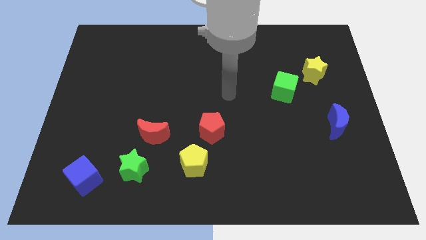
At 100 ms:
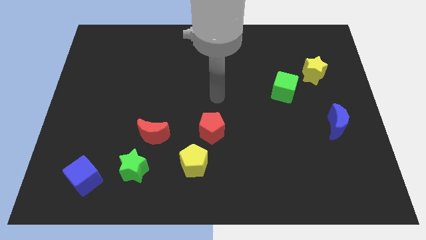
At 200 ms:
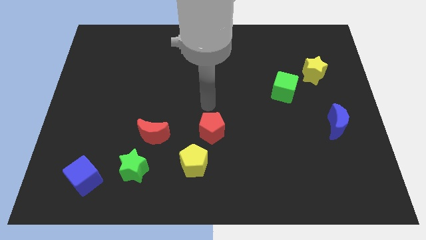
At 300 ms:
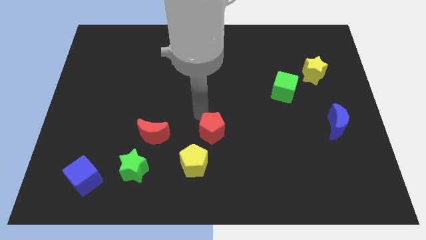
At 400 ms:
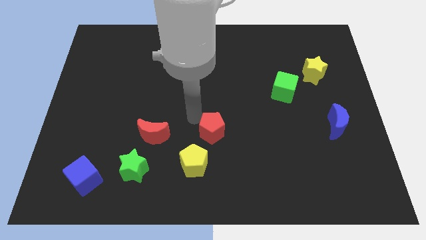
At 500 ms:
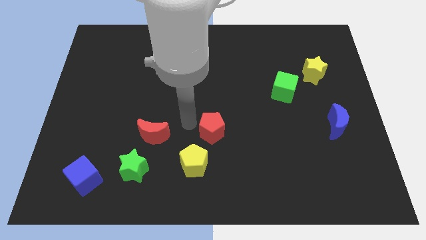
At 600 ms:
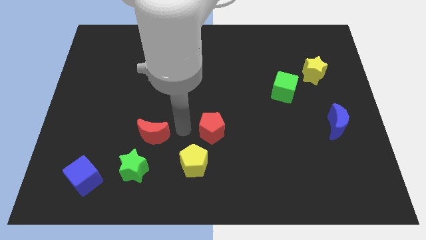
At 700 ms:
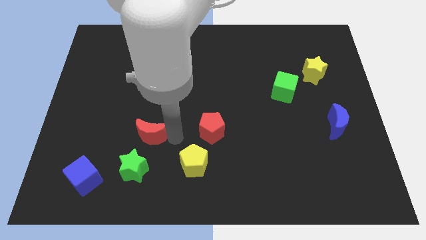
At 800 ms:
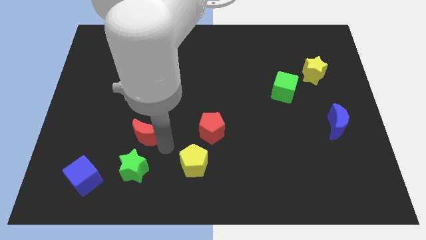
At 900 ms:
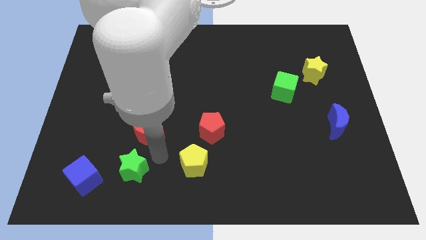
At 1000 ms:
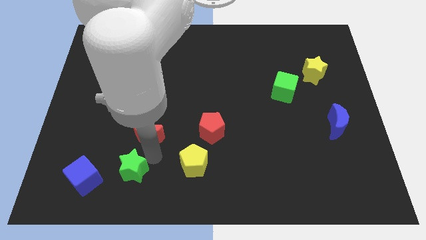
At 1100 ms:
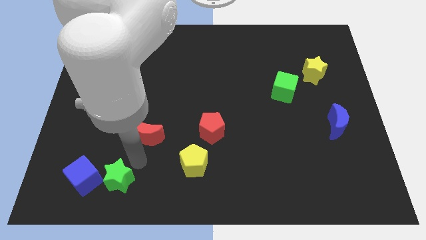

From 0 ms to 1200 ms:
pull the red moon apart from the green star

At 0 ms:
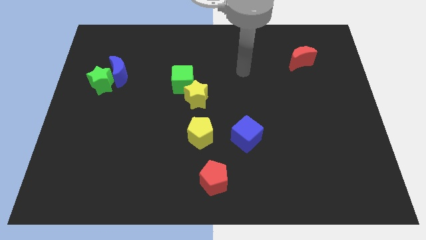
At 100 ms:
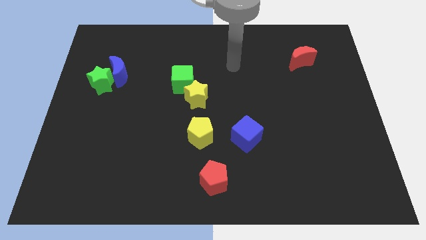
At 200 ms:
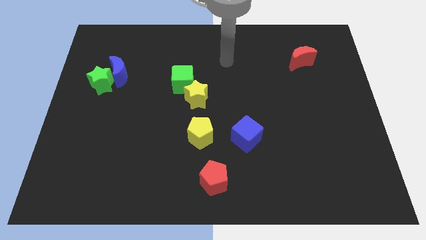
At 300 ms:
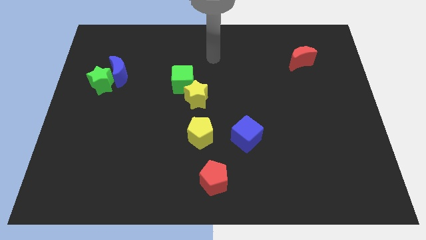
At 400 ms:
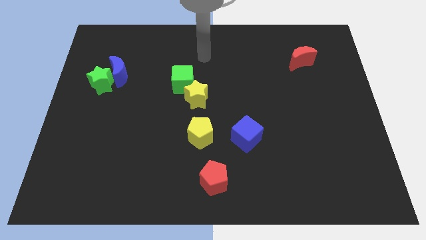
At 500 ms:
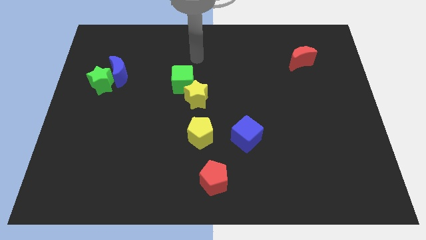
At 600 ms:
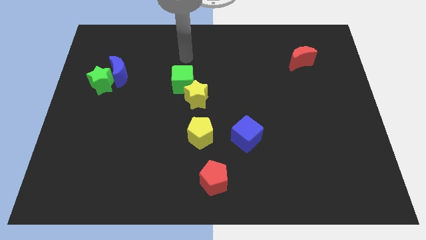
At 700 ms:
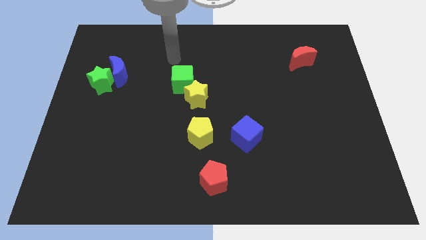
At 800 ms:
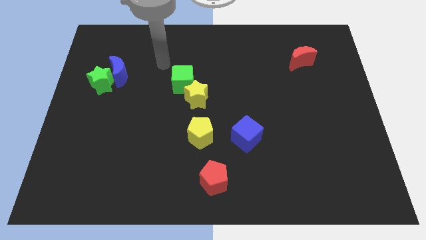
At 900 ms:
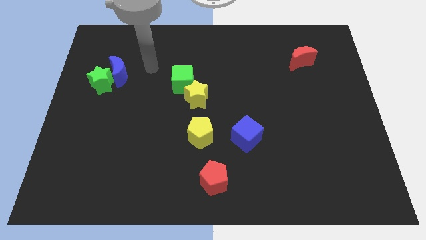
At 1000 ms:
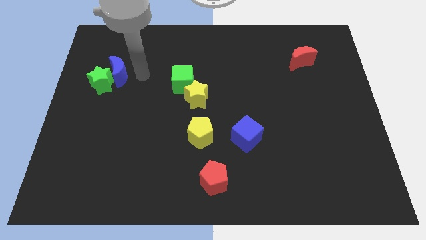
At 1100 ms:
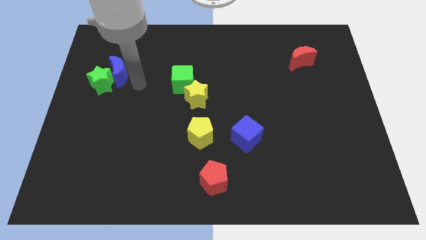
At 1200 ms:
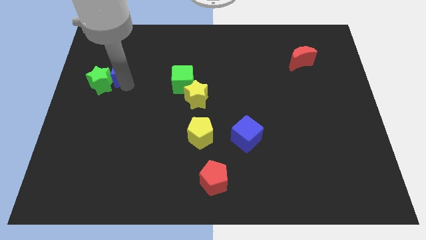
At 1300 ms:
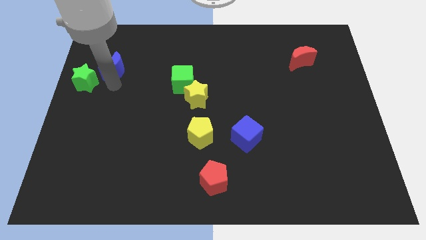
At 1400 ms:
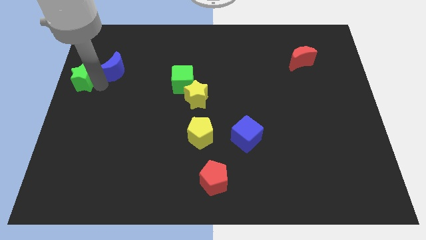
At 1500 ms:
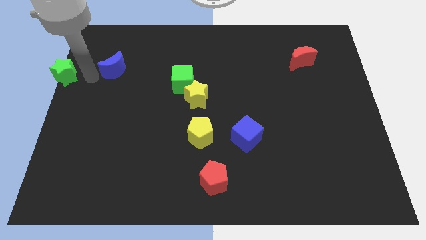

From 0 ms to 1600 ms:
separate the blue moon from the green star

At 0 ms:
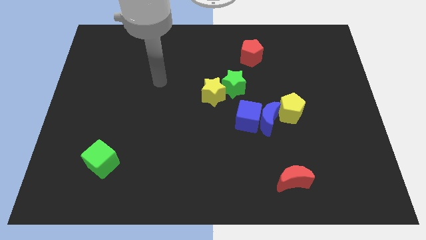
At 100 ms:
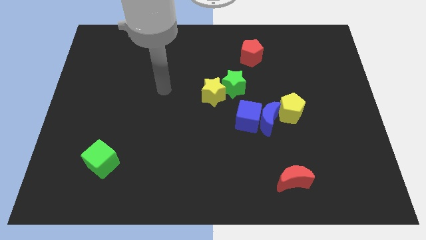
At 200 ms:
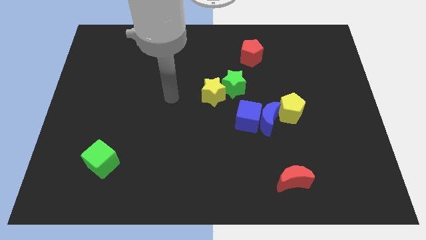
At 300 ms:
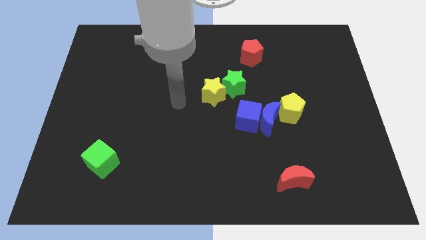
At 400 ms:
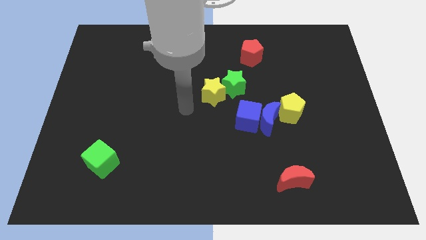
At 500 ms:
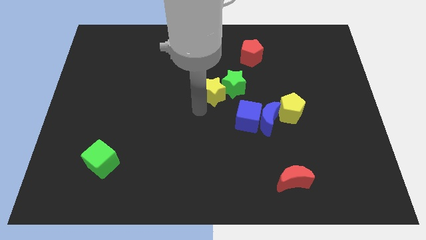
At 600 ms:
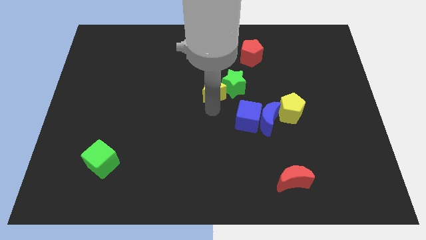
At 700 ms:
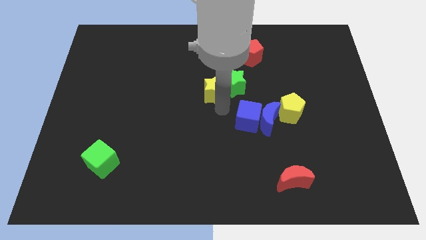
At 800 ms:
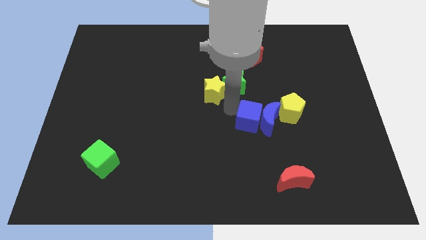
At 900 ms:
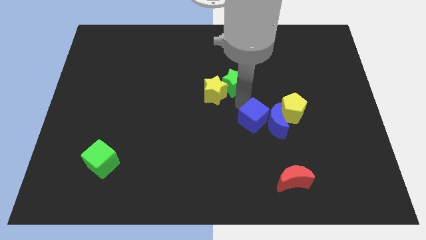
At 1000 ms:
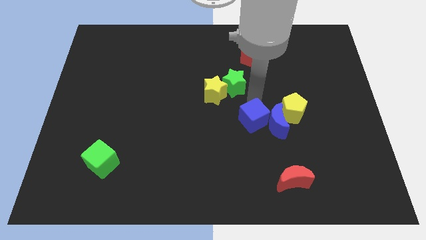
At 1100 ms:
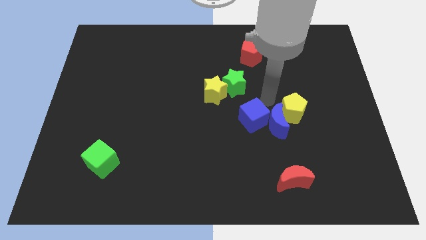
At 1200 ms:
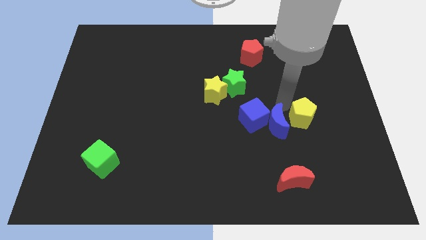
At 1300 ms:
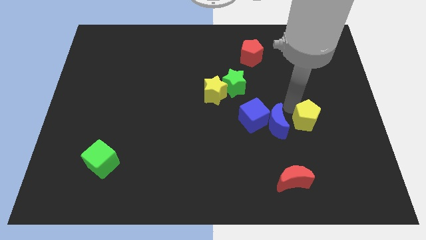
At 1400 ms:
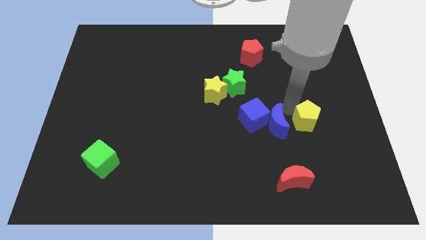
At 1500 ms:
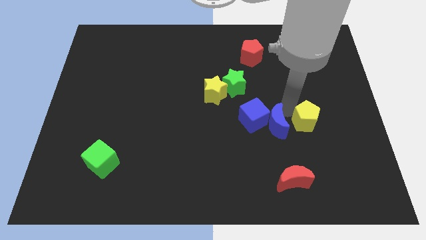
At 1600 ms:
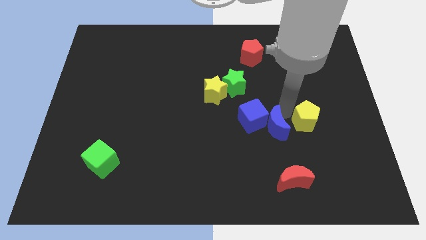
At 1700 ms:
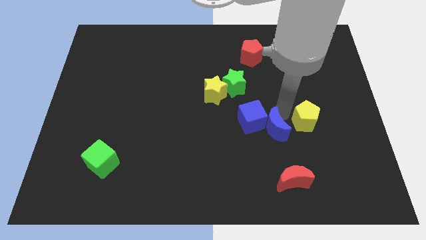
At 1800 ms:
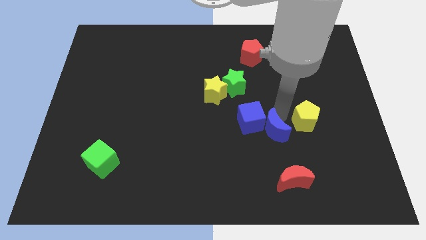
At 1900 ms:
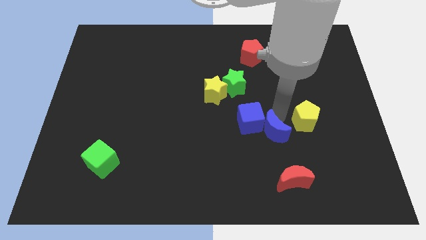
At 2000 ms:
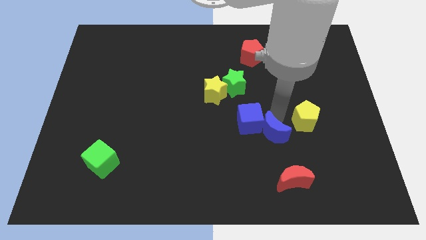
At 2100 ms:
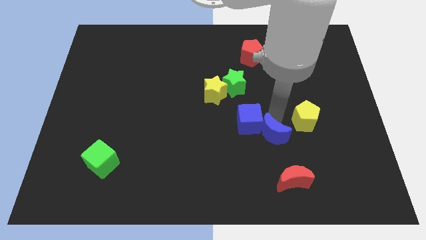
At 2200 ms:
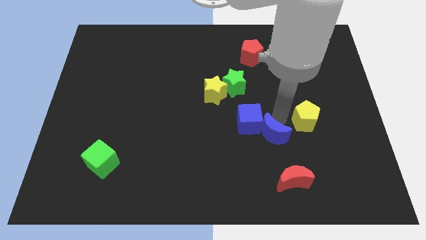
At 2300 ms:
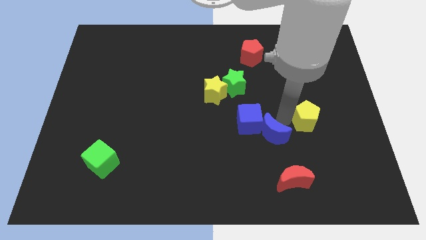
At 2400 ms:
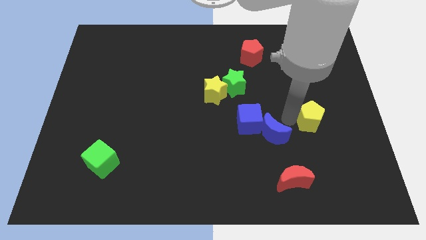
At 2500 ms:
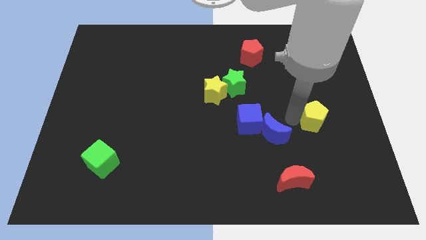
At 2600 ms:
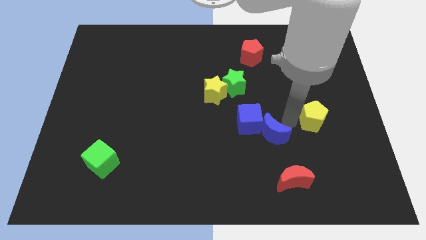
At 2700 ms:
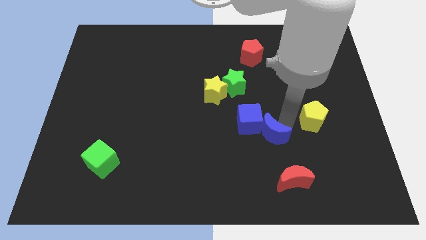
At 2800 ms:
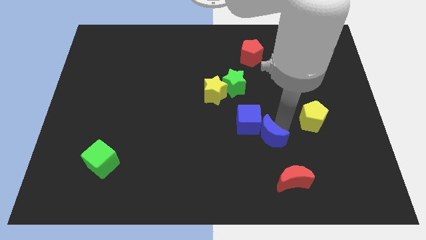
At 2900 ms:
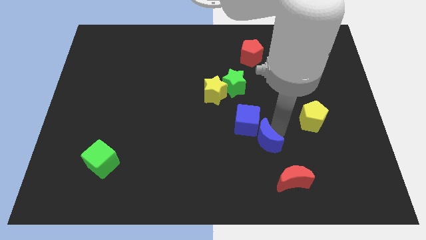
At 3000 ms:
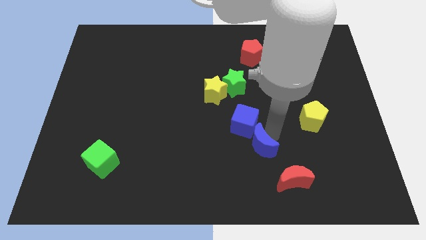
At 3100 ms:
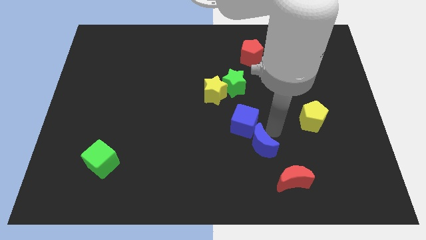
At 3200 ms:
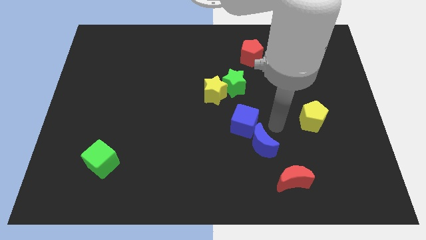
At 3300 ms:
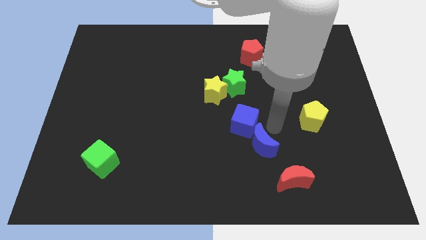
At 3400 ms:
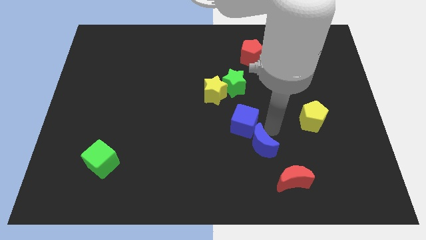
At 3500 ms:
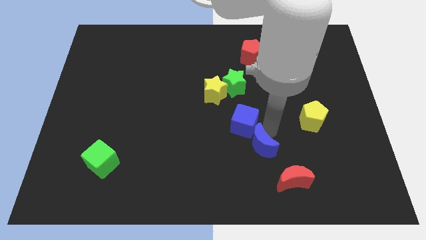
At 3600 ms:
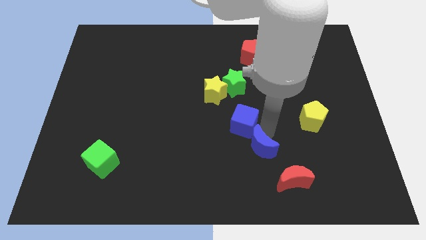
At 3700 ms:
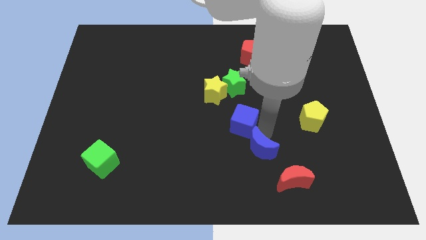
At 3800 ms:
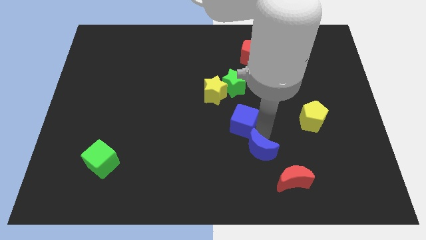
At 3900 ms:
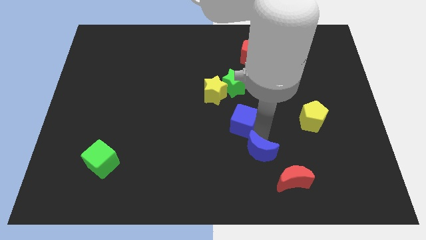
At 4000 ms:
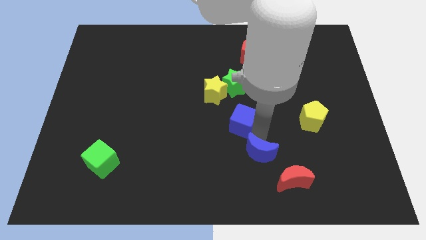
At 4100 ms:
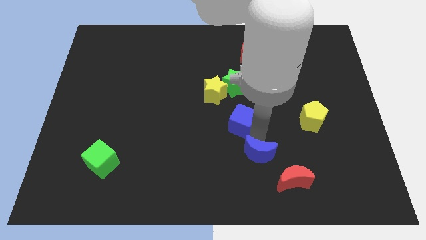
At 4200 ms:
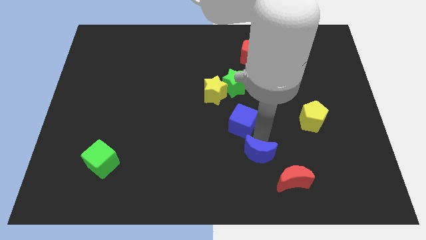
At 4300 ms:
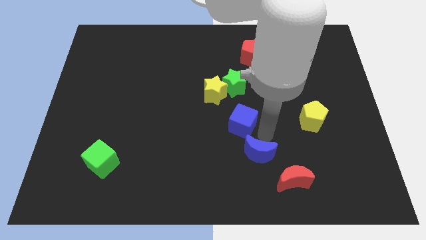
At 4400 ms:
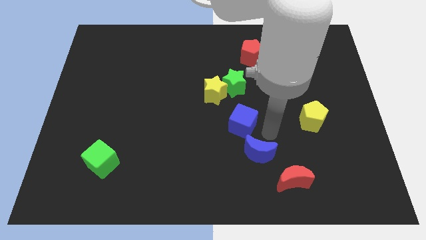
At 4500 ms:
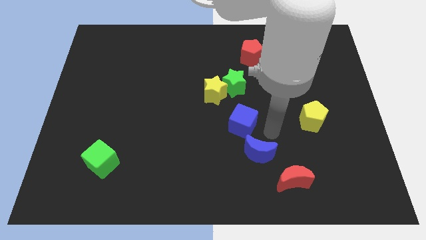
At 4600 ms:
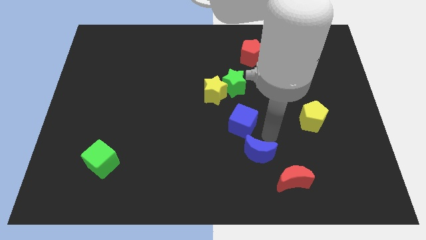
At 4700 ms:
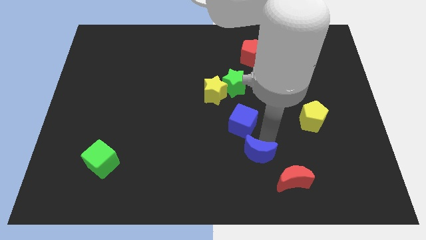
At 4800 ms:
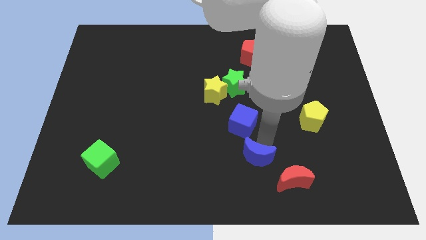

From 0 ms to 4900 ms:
separate the blue moon from the blue cube and yellow pentagon

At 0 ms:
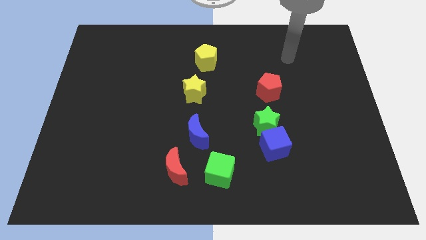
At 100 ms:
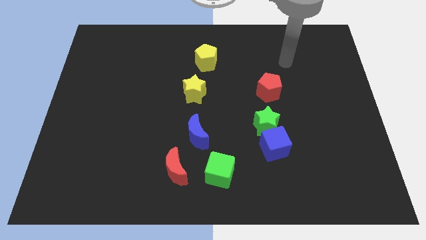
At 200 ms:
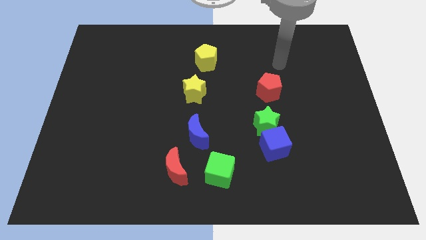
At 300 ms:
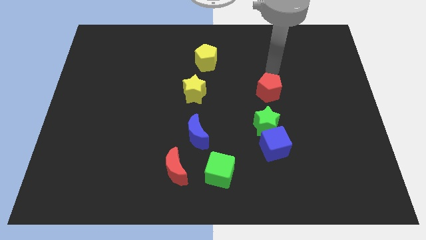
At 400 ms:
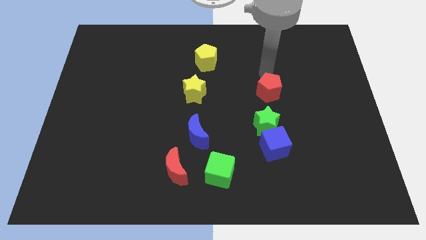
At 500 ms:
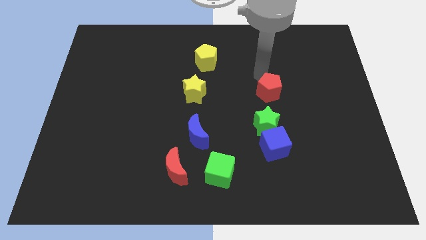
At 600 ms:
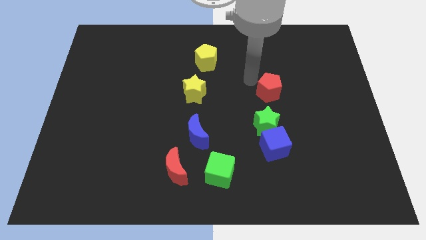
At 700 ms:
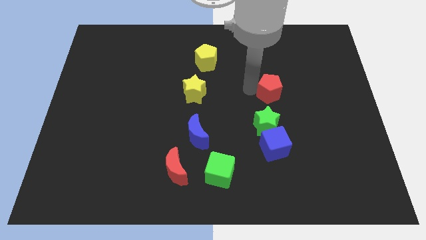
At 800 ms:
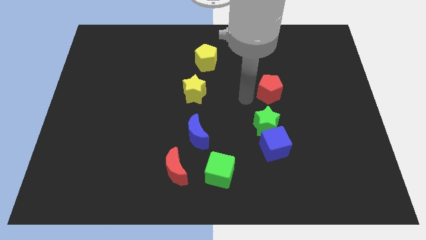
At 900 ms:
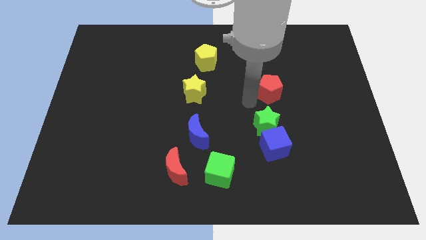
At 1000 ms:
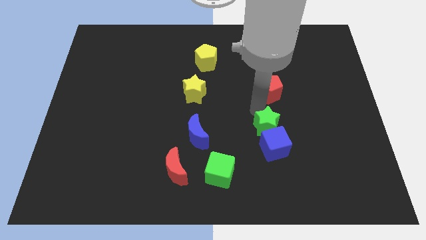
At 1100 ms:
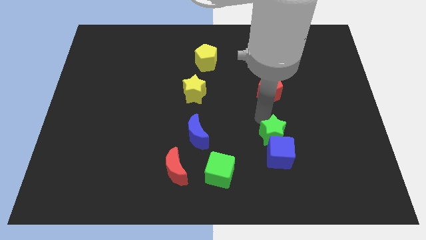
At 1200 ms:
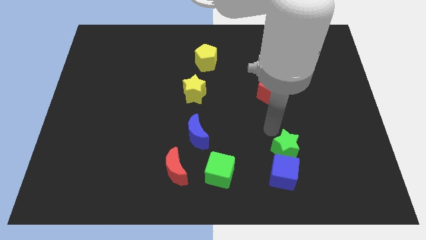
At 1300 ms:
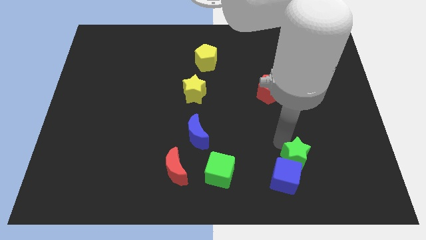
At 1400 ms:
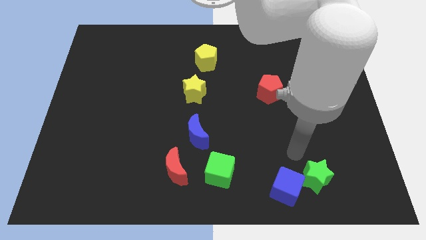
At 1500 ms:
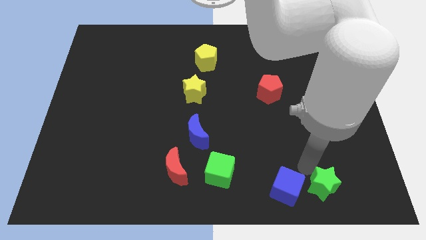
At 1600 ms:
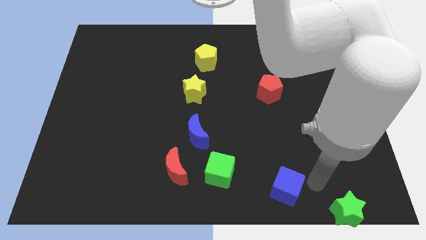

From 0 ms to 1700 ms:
pull the blue cube apart from the green star
